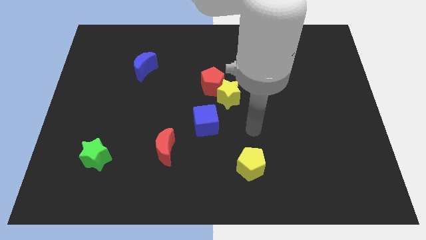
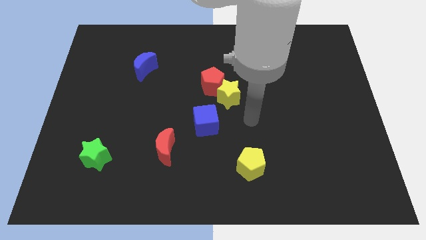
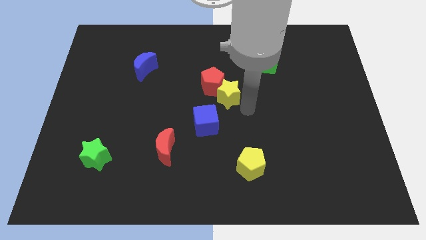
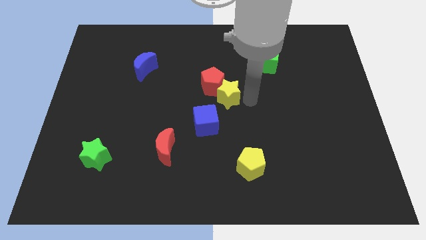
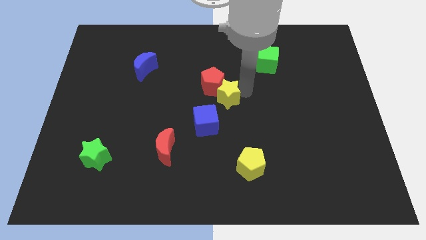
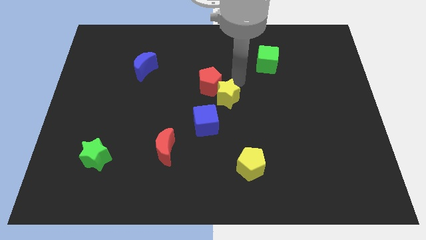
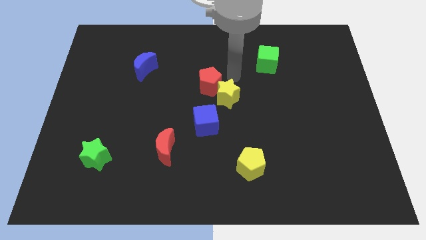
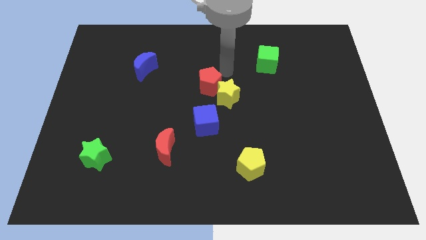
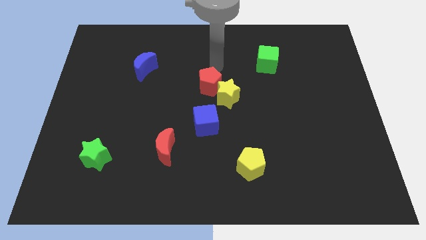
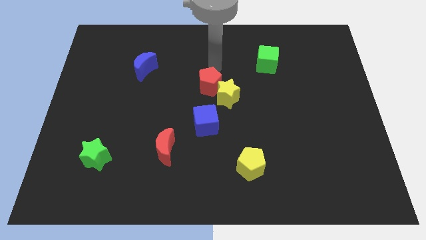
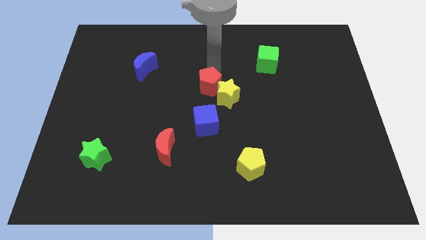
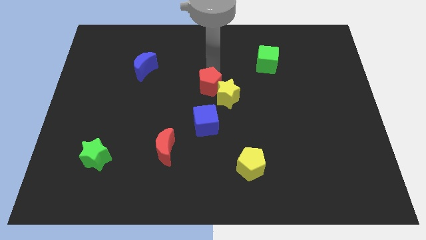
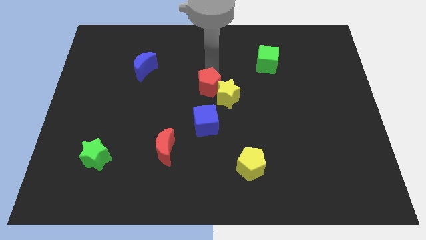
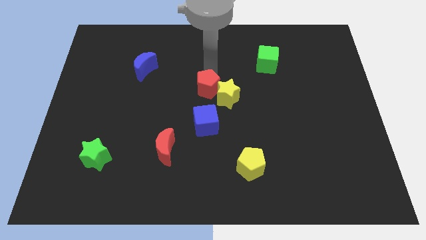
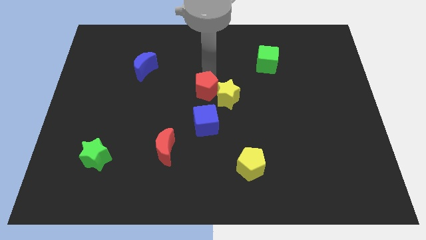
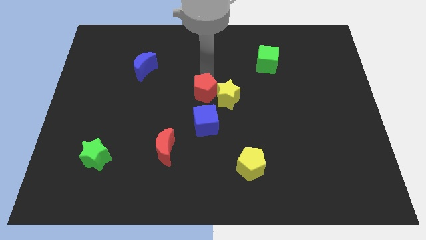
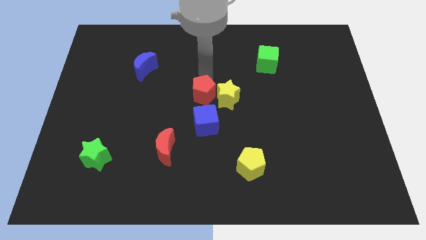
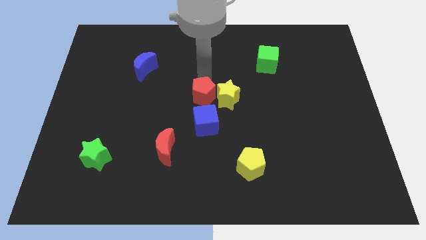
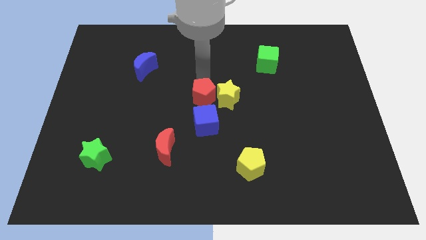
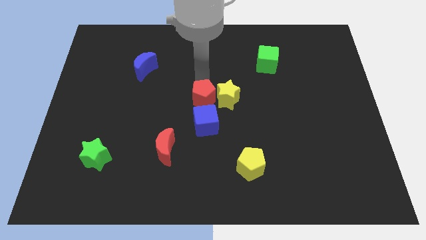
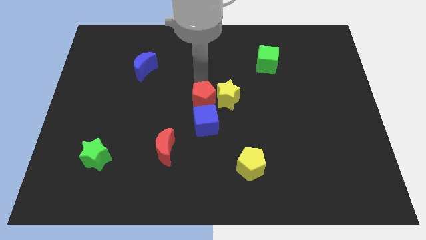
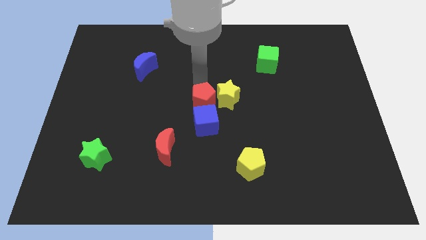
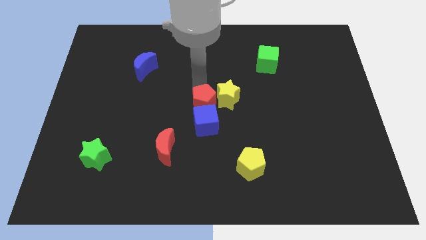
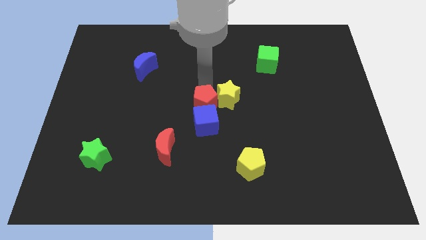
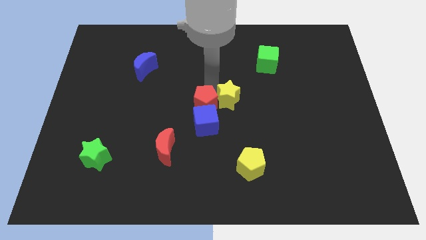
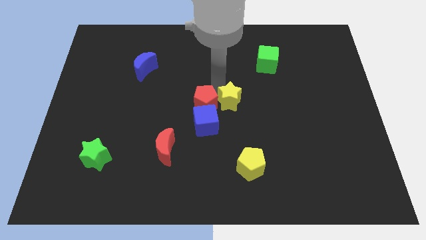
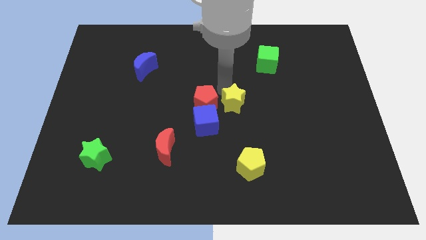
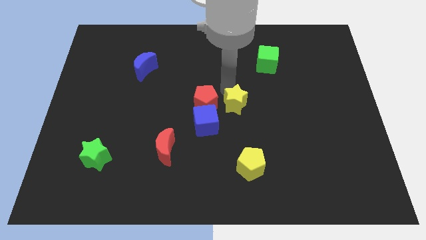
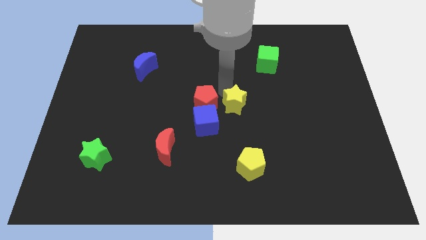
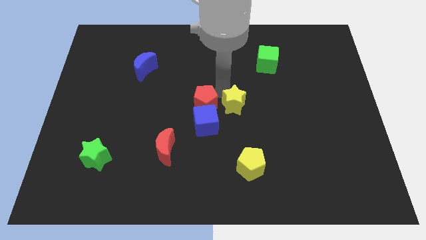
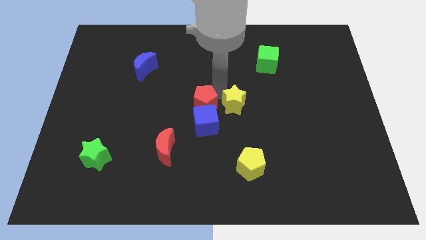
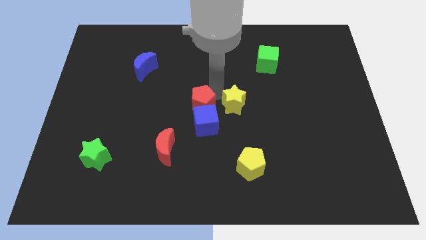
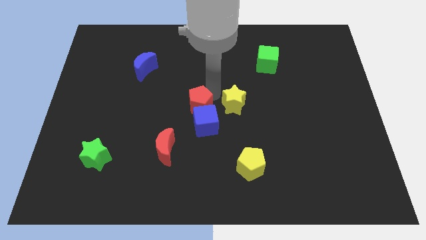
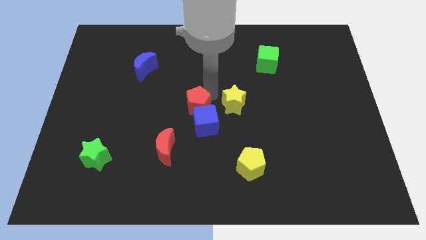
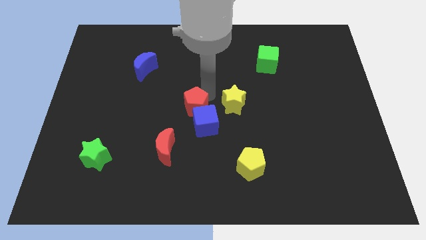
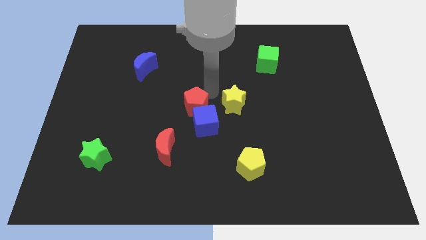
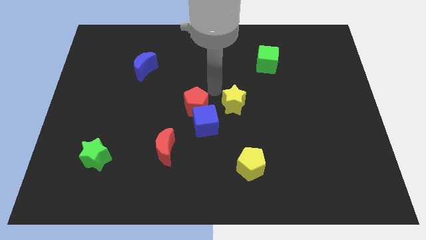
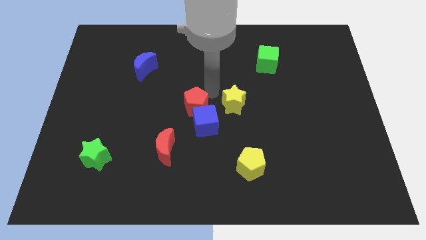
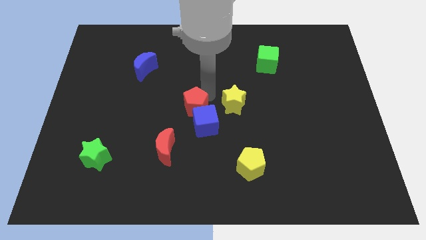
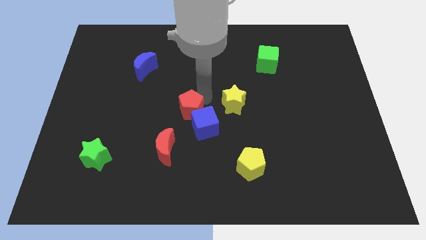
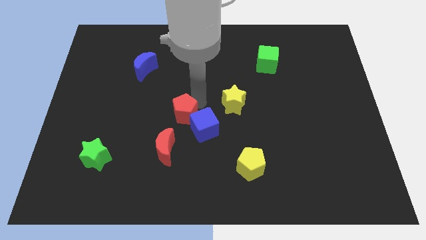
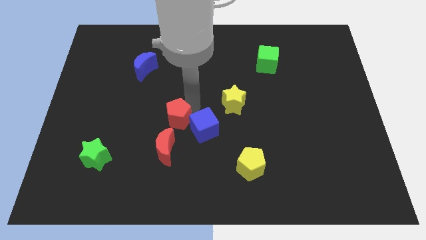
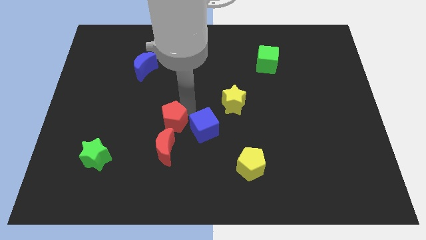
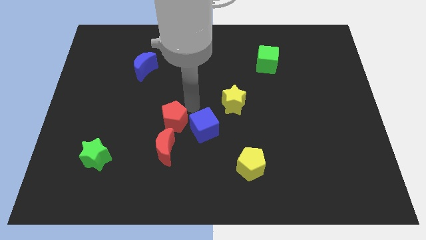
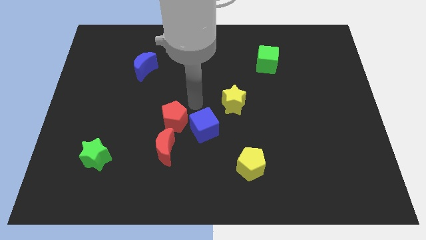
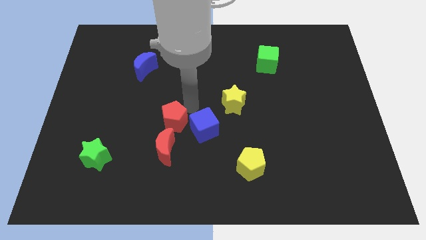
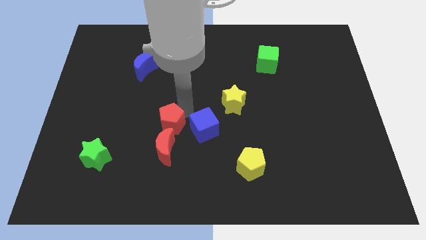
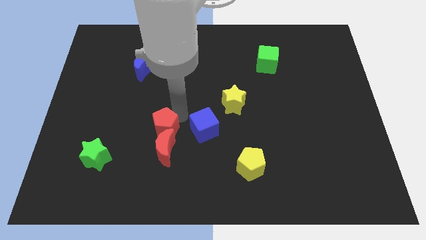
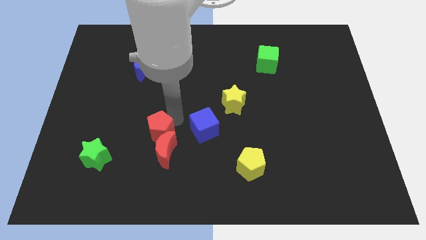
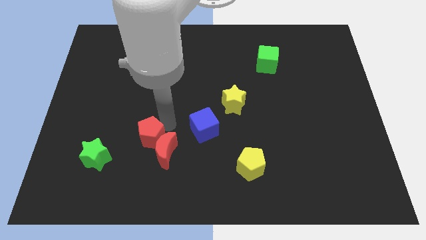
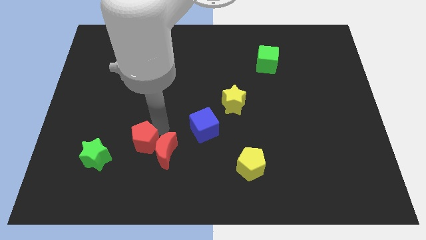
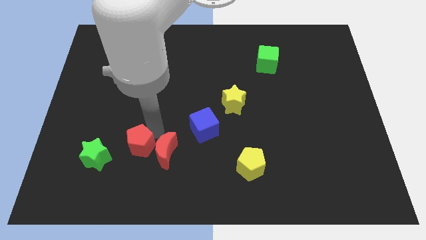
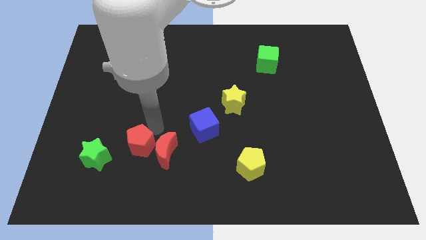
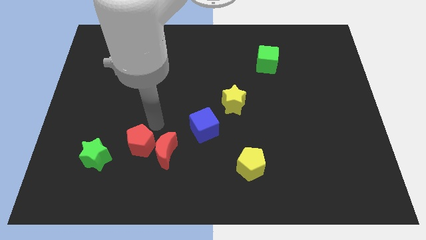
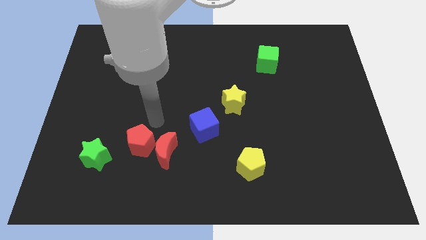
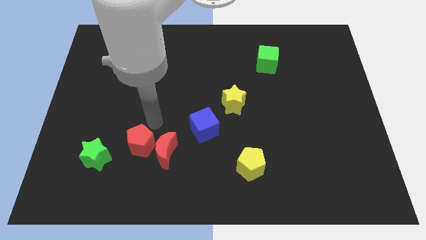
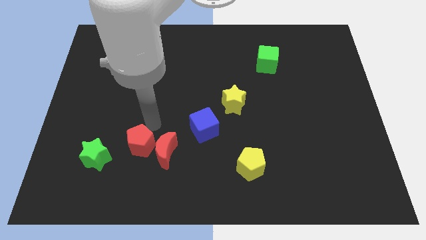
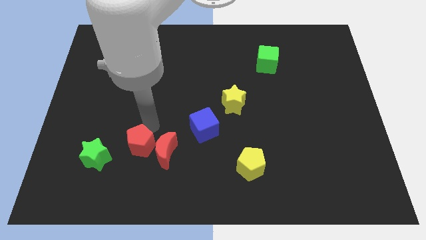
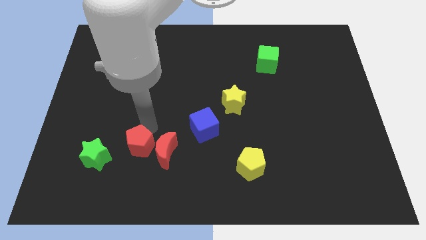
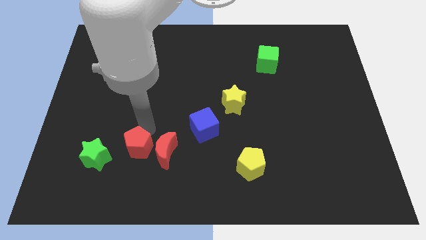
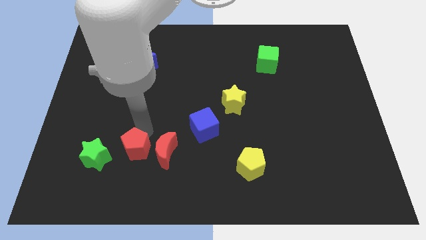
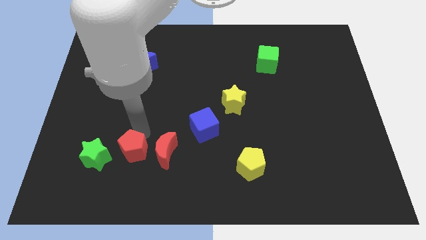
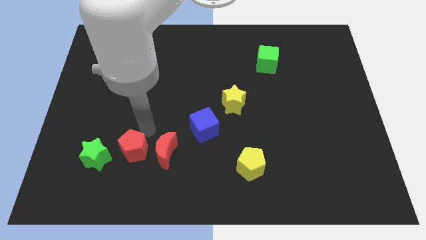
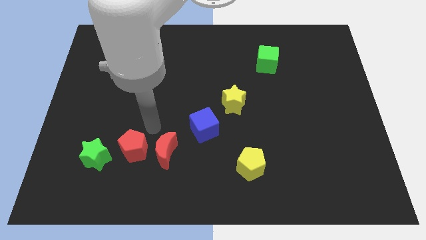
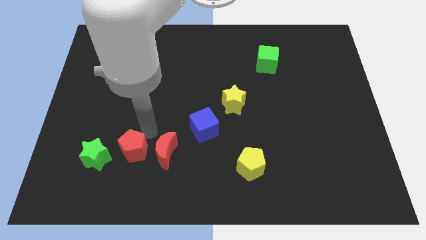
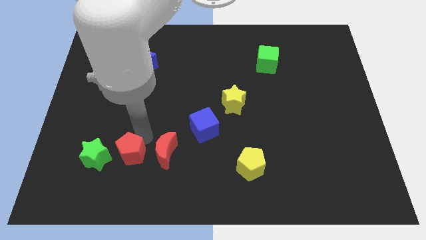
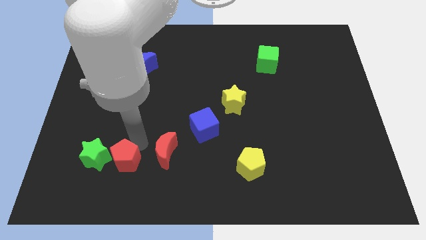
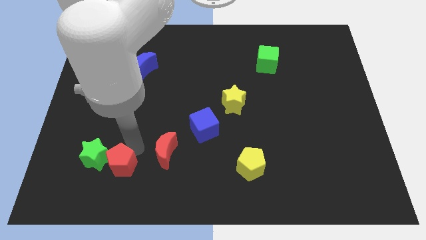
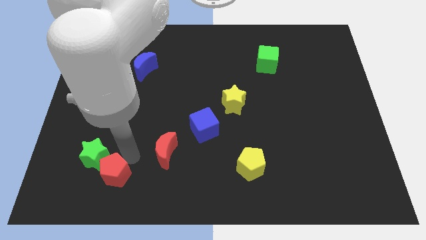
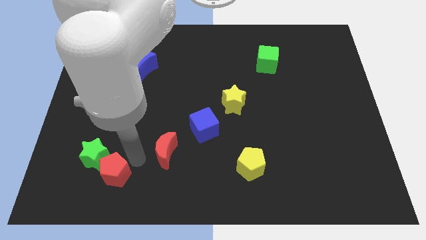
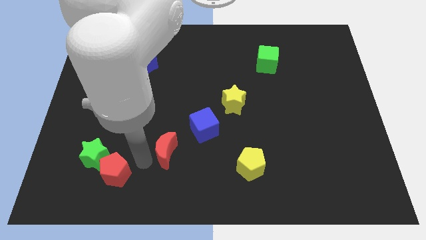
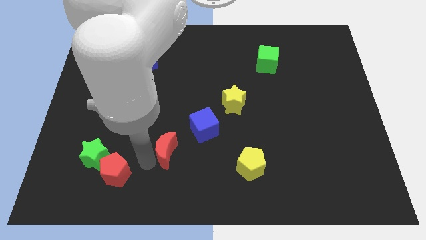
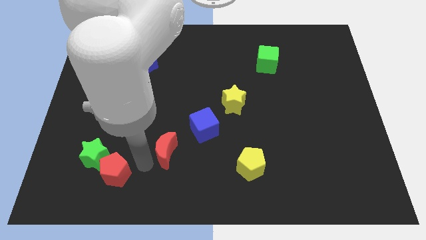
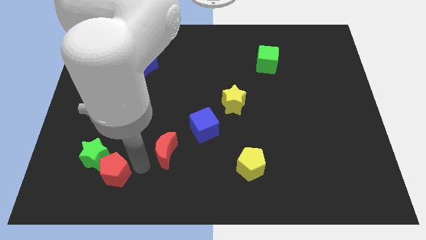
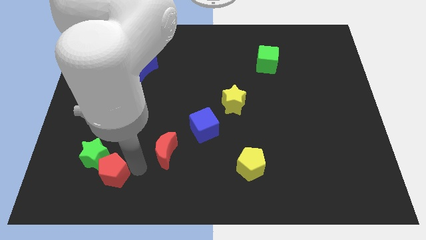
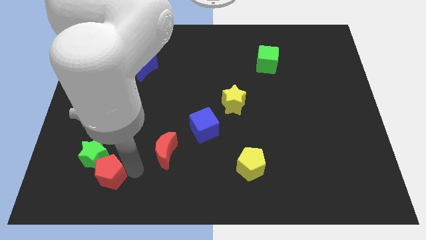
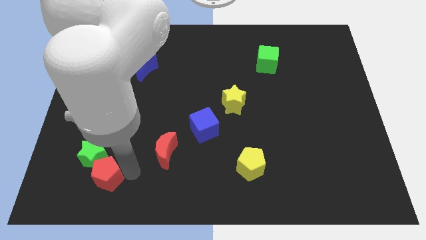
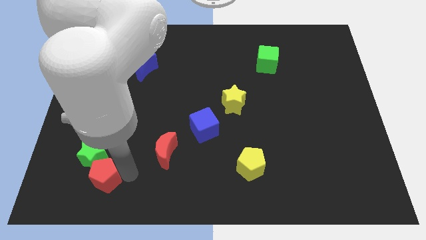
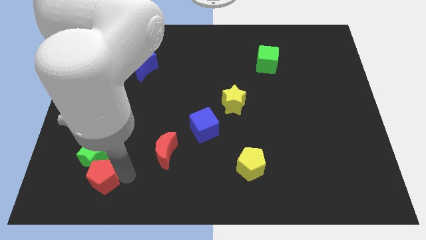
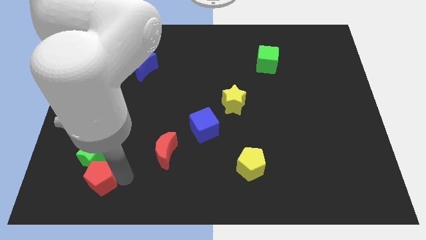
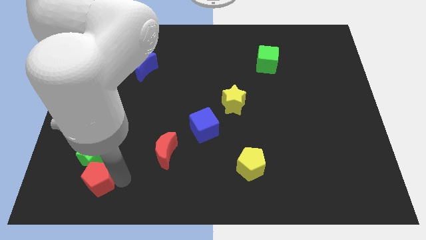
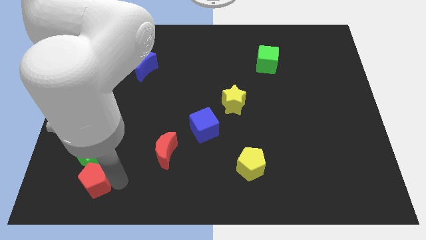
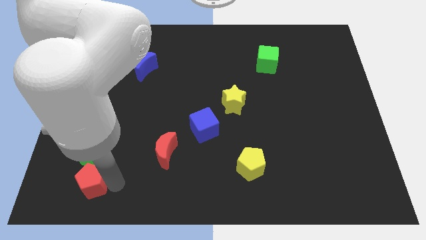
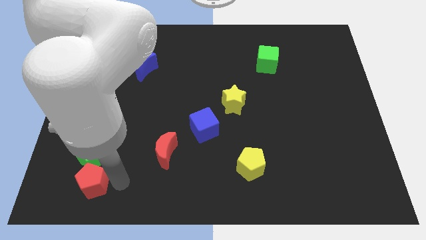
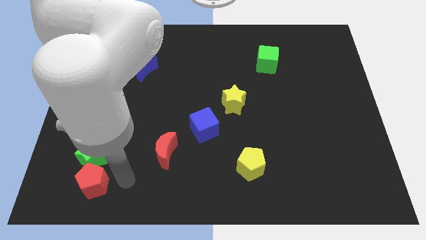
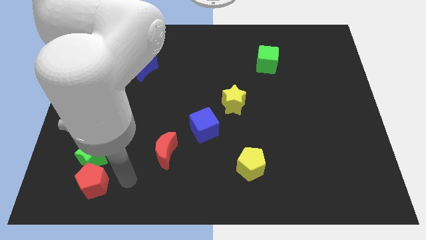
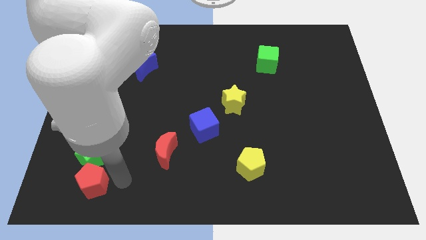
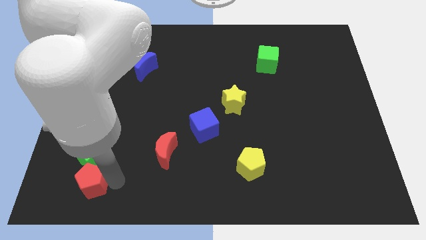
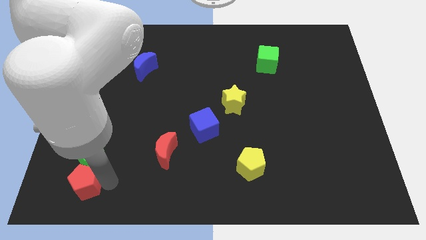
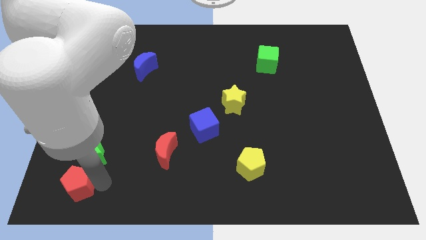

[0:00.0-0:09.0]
push the red pentagon to the lower left corner
